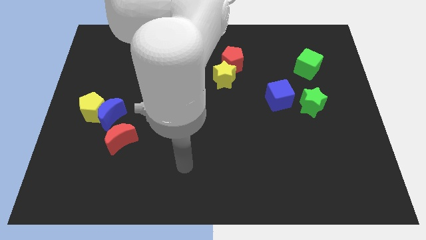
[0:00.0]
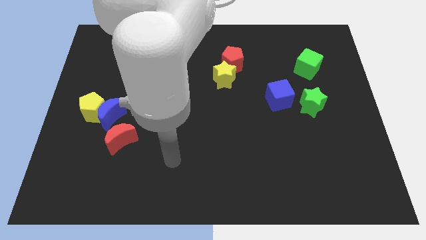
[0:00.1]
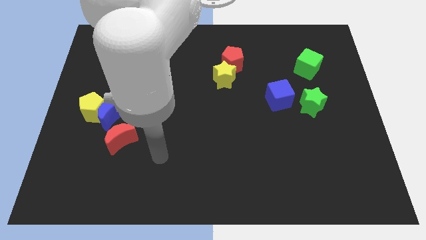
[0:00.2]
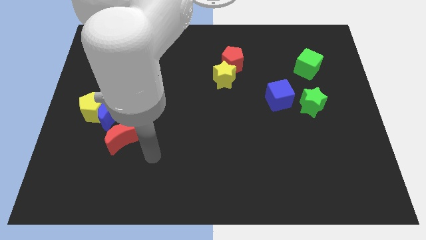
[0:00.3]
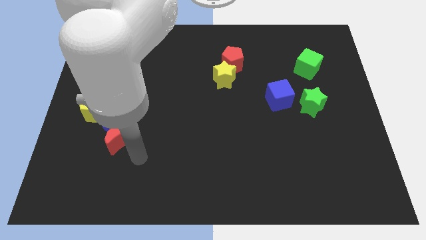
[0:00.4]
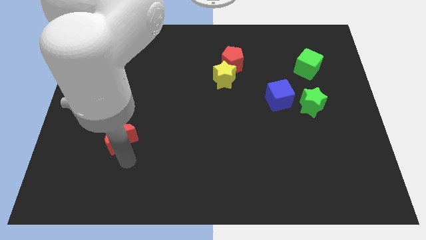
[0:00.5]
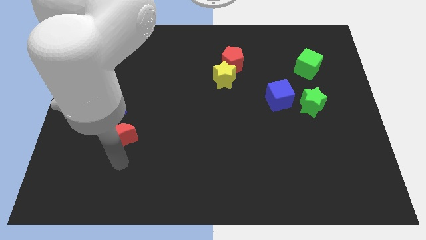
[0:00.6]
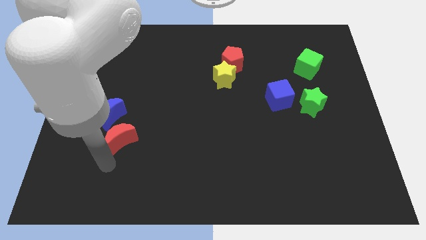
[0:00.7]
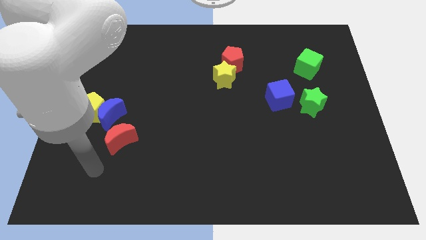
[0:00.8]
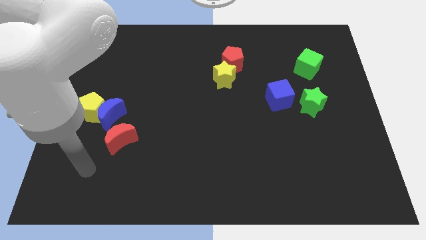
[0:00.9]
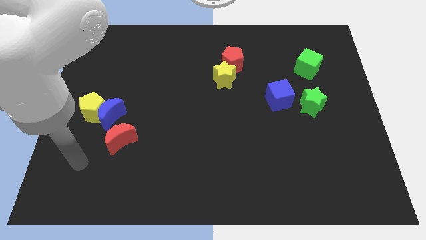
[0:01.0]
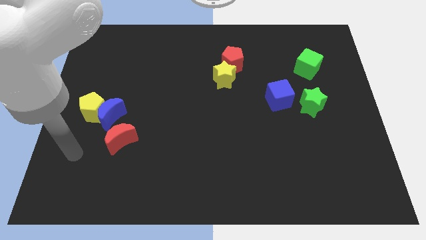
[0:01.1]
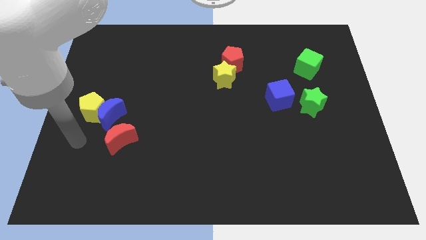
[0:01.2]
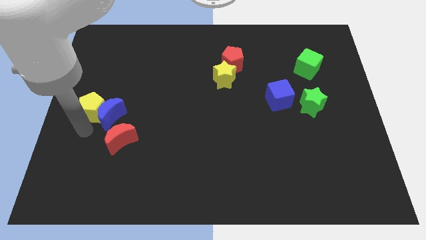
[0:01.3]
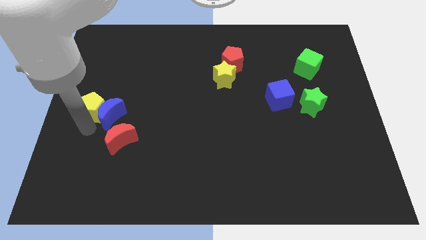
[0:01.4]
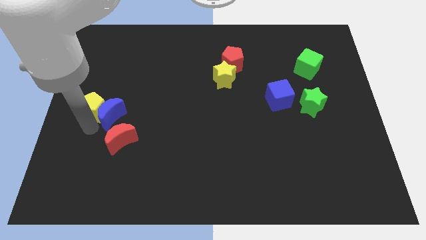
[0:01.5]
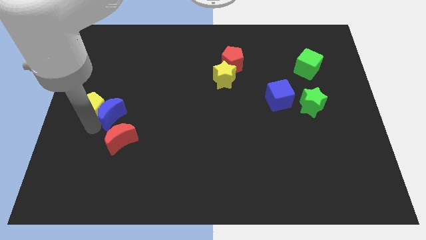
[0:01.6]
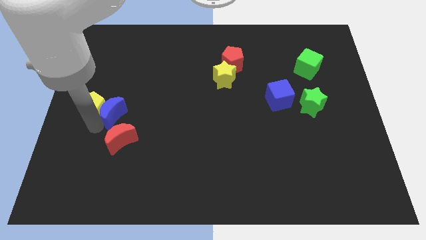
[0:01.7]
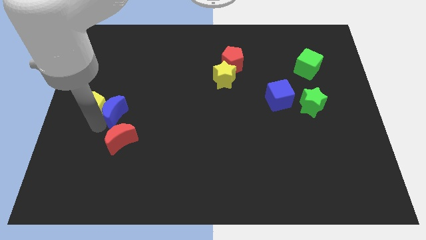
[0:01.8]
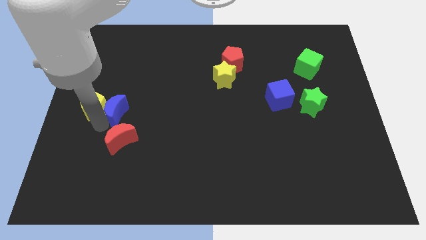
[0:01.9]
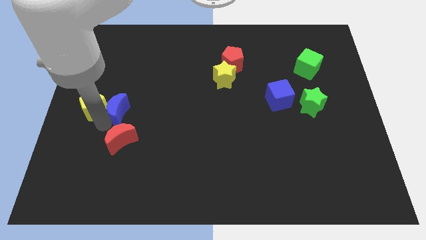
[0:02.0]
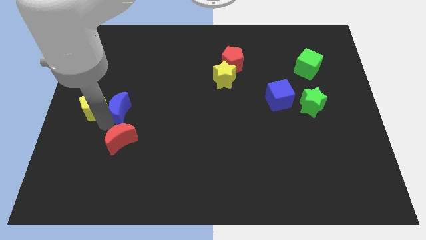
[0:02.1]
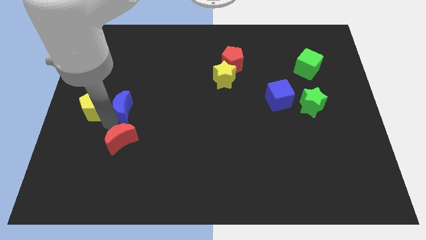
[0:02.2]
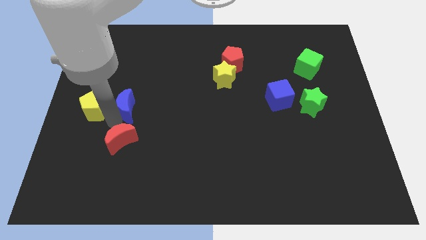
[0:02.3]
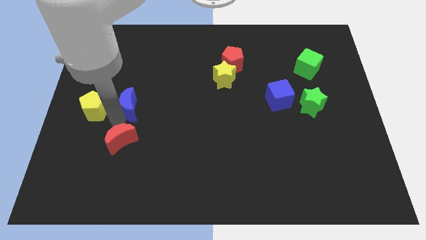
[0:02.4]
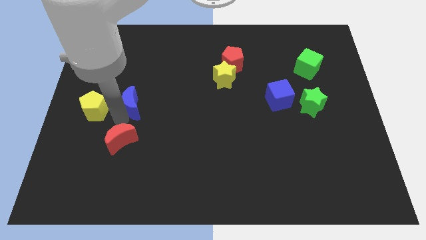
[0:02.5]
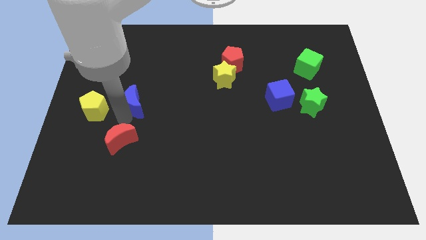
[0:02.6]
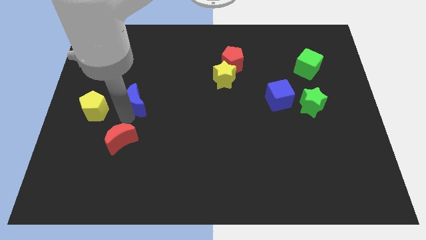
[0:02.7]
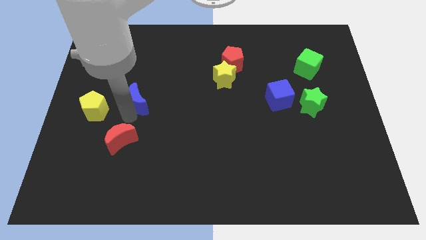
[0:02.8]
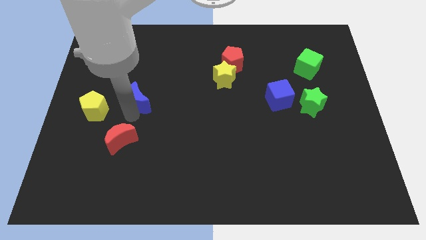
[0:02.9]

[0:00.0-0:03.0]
slide the blue moon slightly diagonally upwards and right

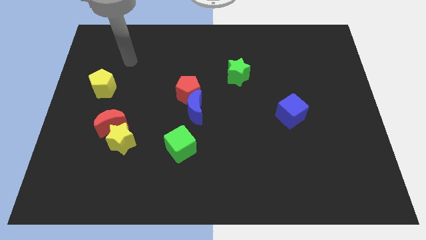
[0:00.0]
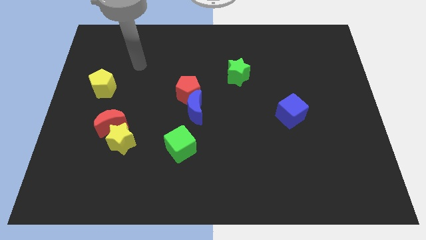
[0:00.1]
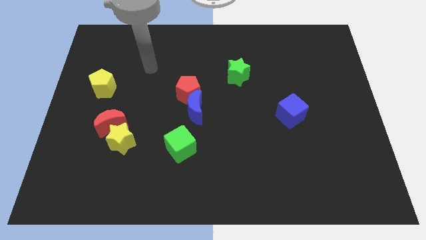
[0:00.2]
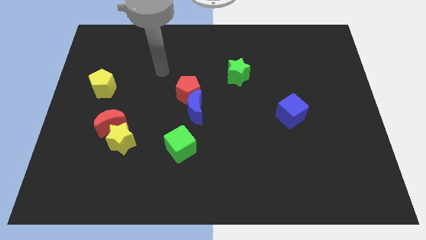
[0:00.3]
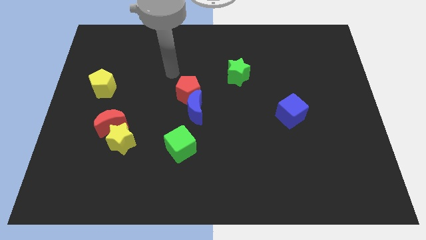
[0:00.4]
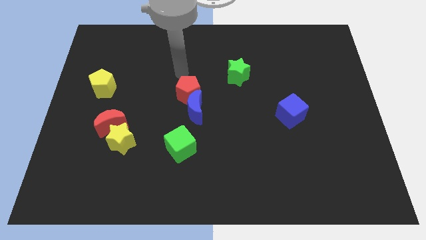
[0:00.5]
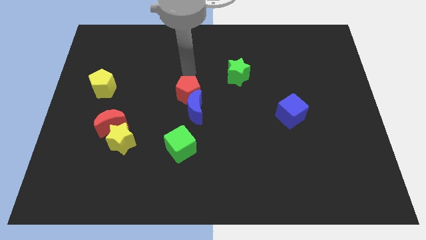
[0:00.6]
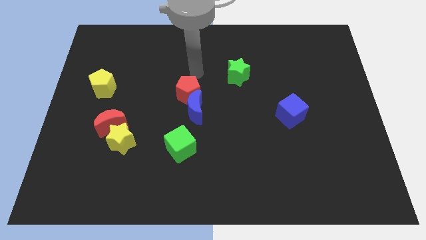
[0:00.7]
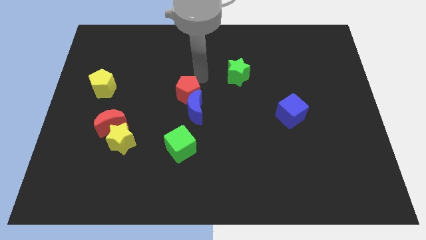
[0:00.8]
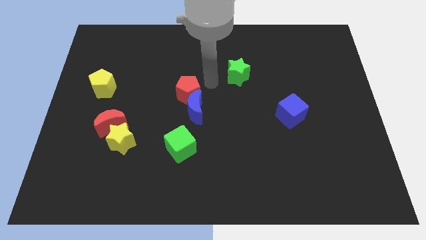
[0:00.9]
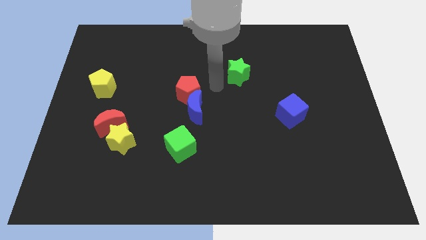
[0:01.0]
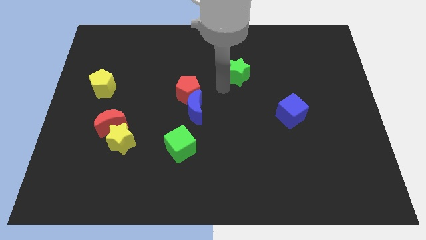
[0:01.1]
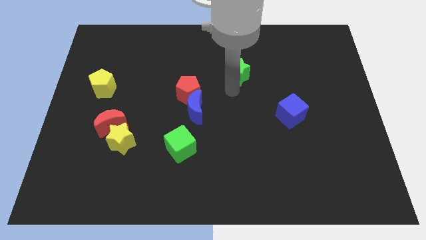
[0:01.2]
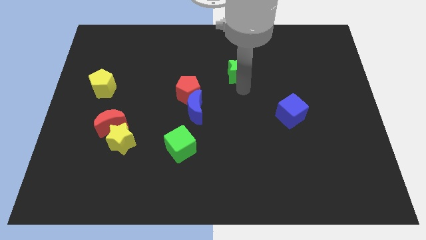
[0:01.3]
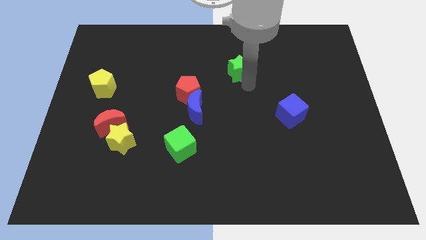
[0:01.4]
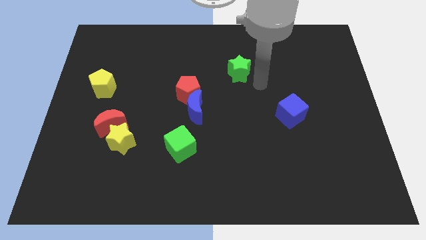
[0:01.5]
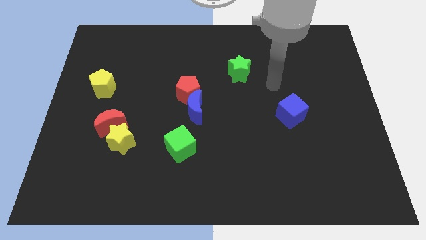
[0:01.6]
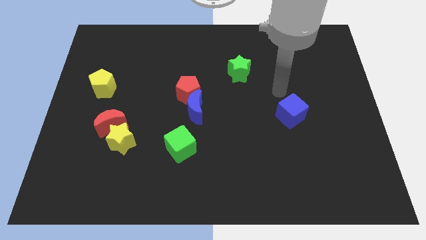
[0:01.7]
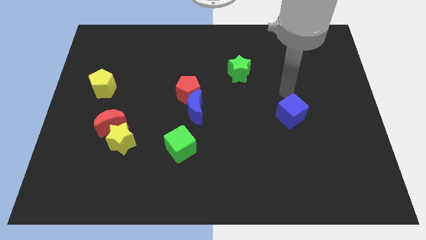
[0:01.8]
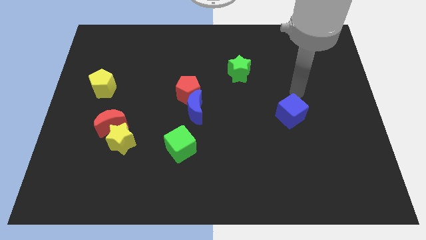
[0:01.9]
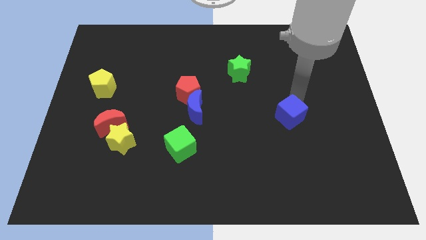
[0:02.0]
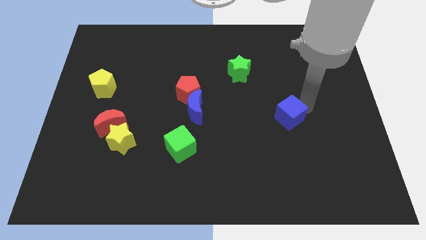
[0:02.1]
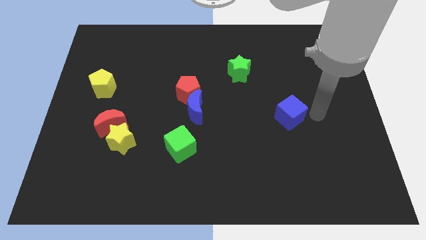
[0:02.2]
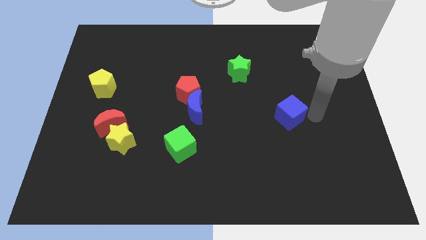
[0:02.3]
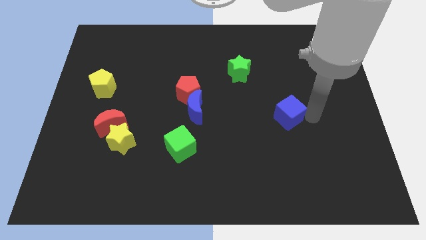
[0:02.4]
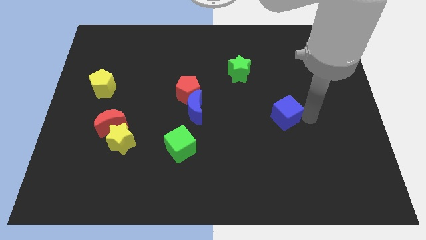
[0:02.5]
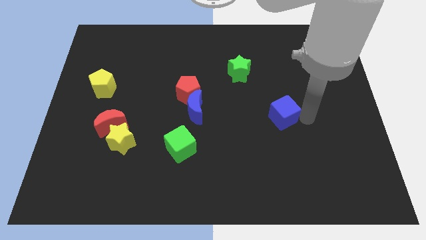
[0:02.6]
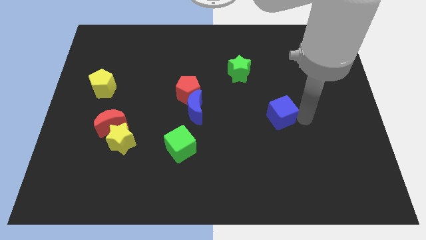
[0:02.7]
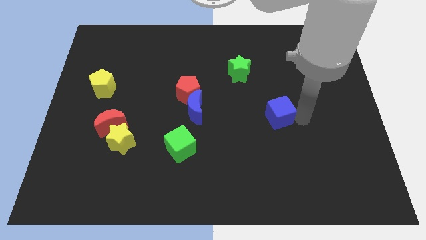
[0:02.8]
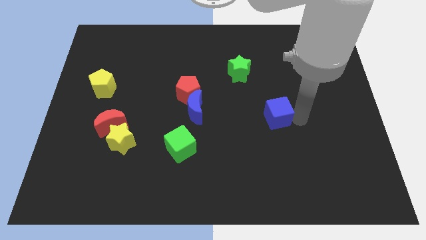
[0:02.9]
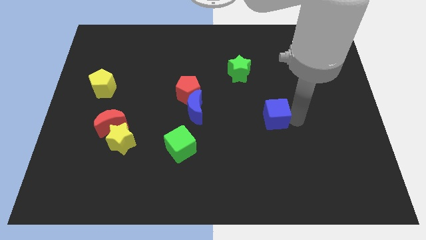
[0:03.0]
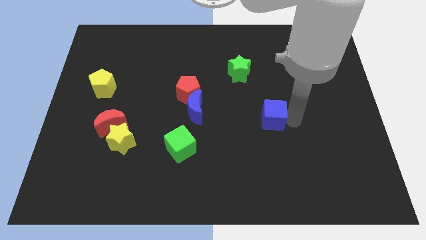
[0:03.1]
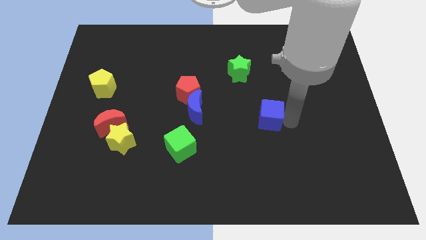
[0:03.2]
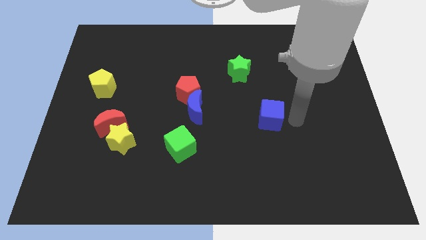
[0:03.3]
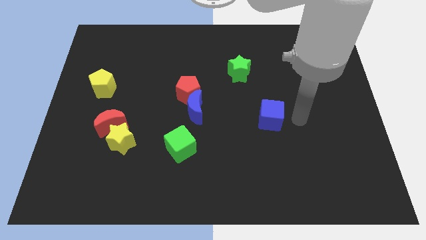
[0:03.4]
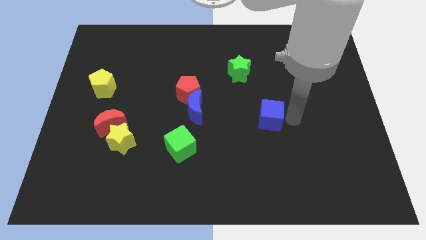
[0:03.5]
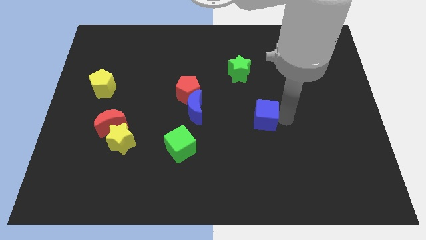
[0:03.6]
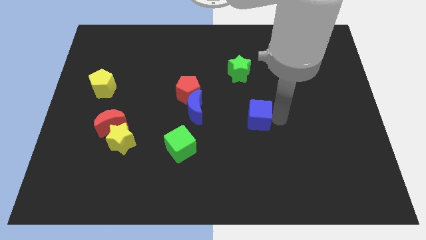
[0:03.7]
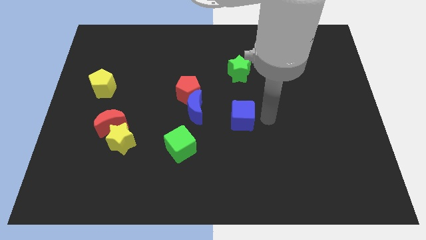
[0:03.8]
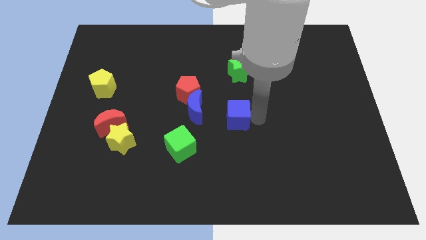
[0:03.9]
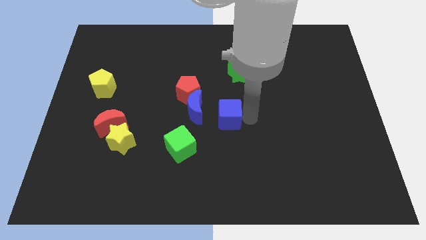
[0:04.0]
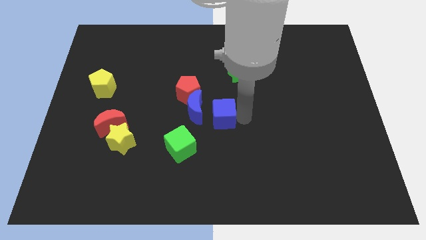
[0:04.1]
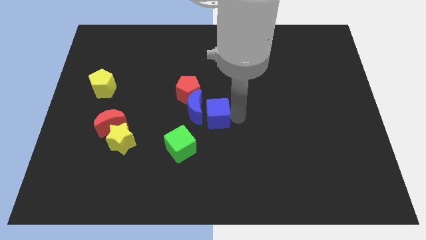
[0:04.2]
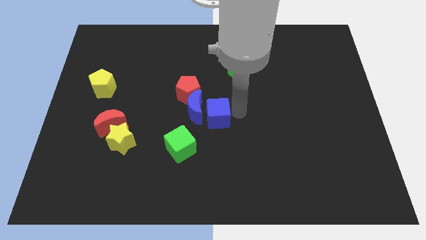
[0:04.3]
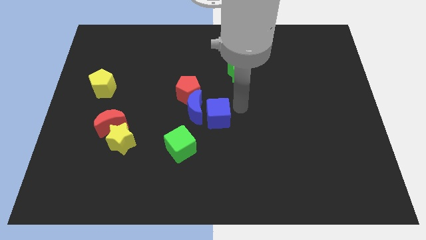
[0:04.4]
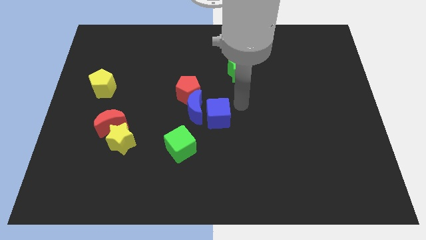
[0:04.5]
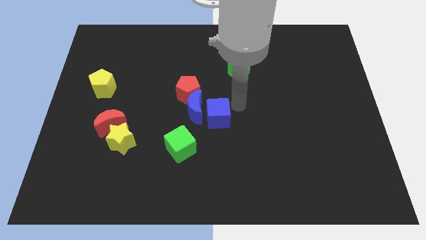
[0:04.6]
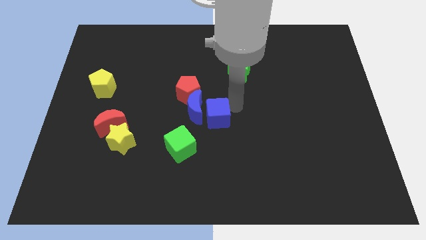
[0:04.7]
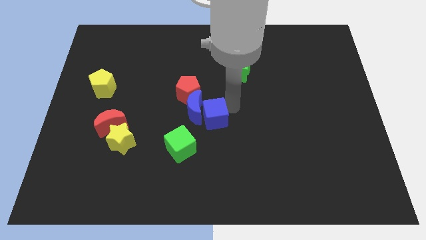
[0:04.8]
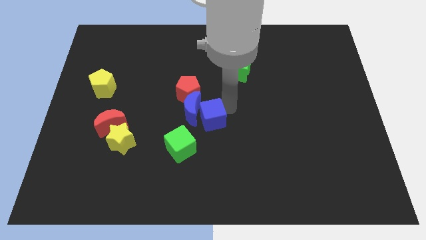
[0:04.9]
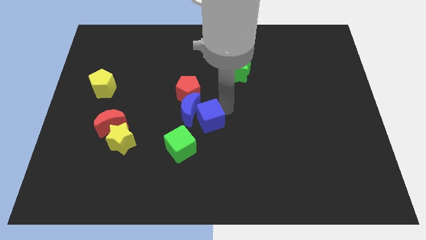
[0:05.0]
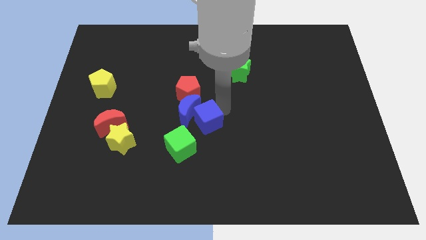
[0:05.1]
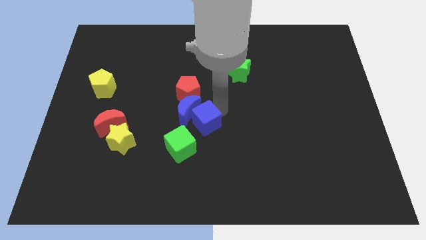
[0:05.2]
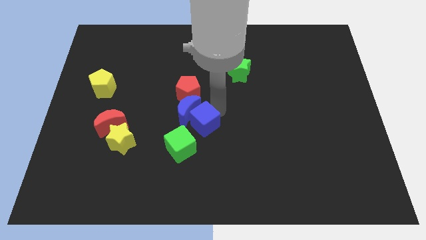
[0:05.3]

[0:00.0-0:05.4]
push the blue cube left
